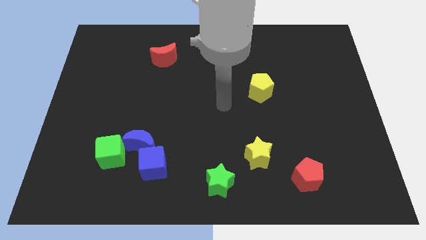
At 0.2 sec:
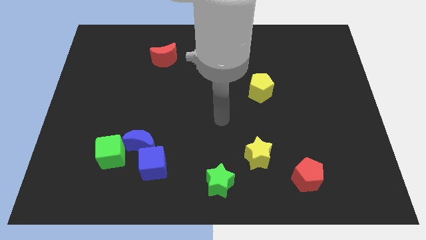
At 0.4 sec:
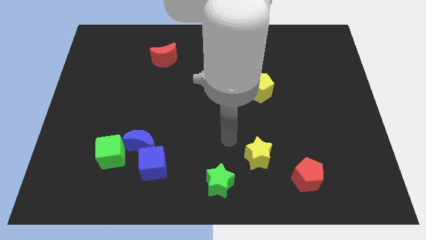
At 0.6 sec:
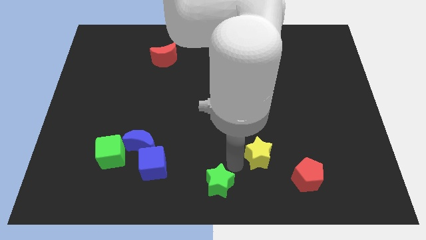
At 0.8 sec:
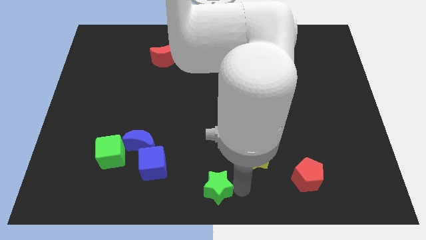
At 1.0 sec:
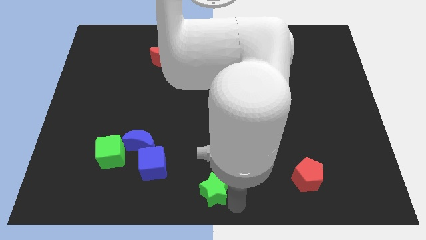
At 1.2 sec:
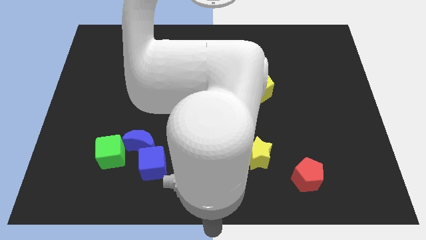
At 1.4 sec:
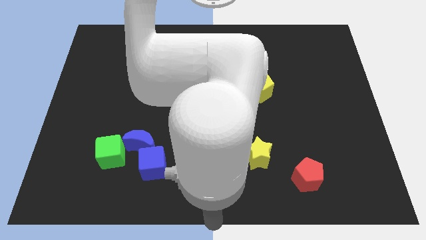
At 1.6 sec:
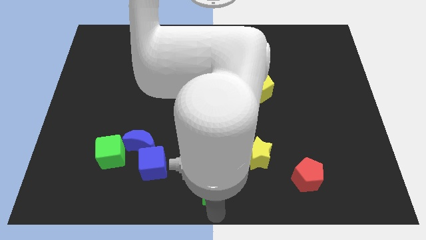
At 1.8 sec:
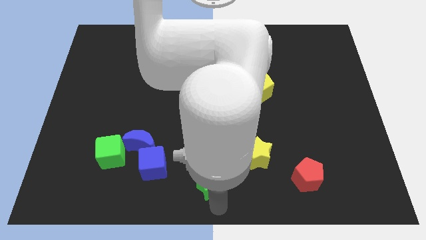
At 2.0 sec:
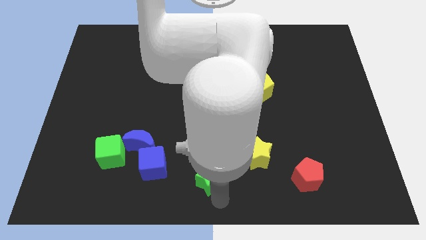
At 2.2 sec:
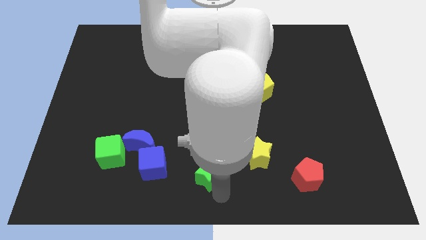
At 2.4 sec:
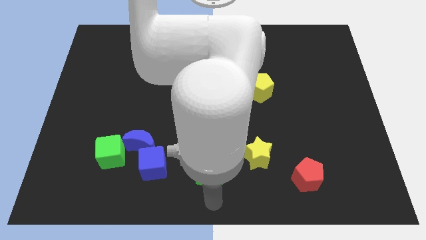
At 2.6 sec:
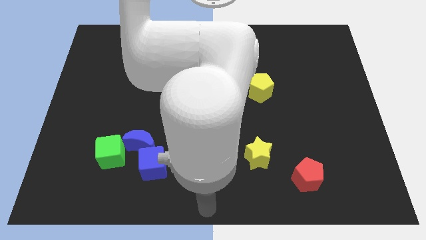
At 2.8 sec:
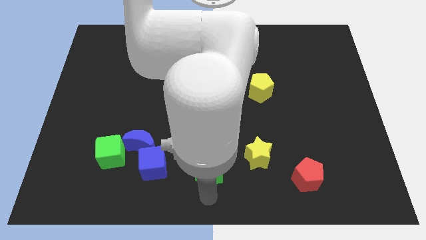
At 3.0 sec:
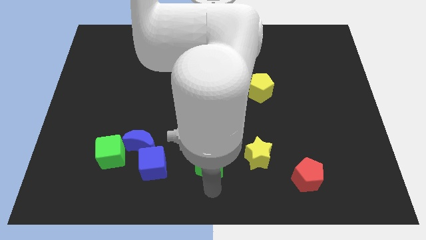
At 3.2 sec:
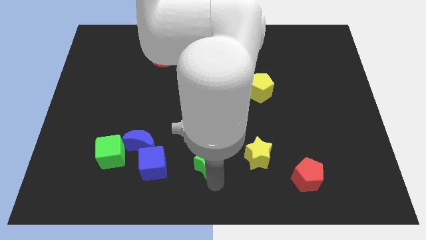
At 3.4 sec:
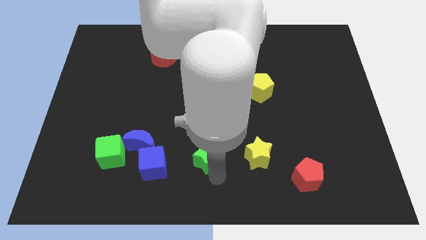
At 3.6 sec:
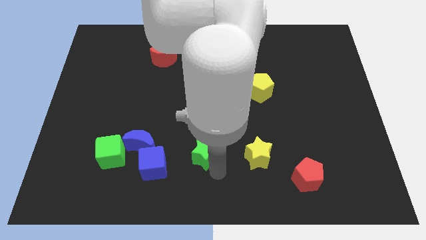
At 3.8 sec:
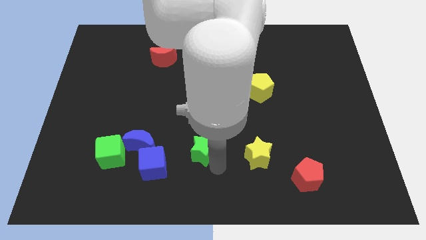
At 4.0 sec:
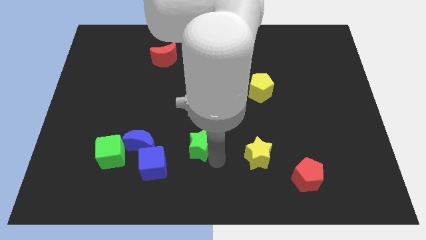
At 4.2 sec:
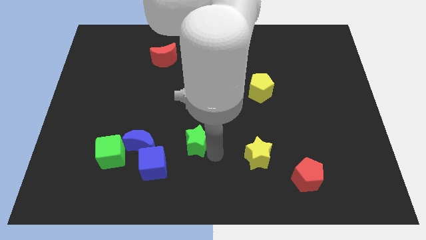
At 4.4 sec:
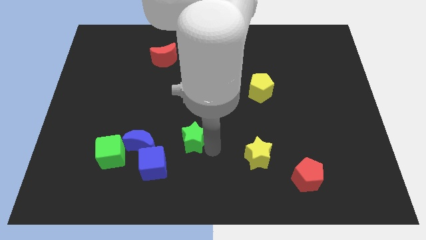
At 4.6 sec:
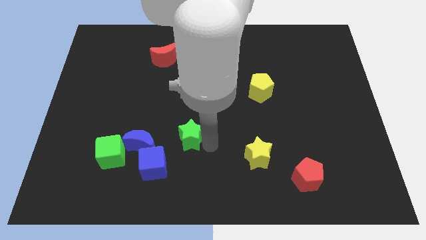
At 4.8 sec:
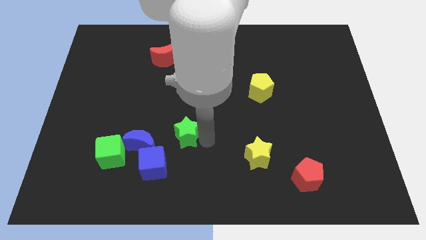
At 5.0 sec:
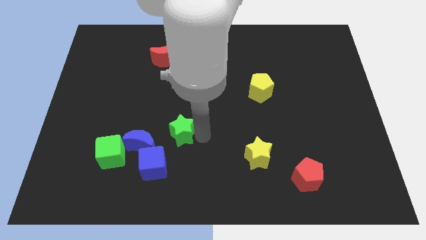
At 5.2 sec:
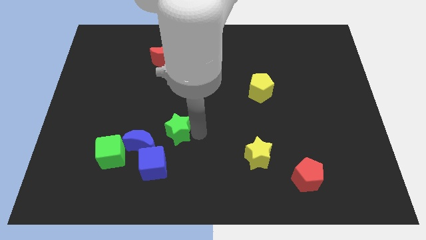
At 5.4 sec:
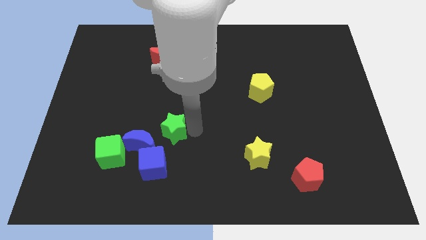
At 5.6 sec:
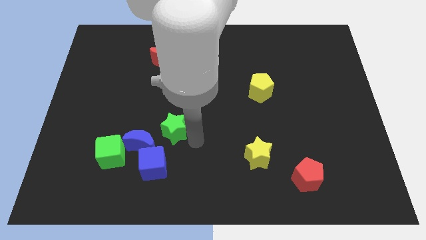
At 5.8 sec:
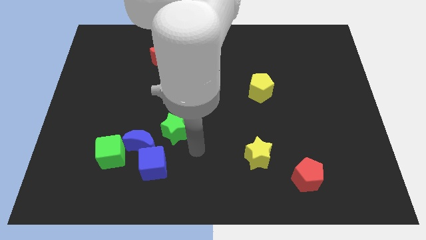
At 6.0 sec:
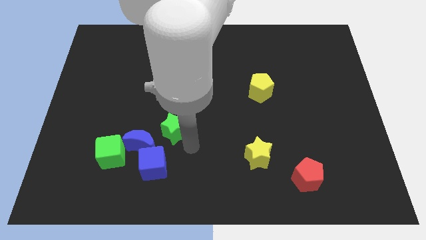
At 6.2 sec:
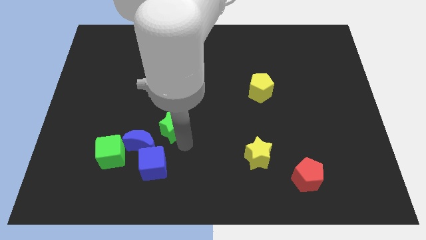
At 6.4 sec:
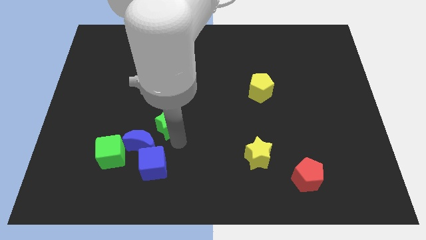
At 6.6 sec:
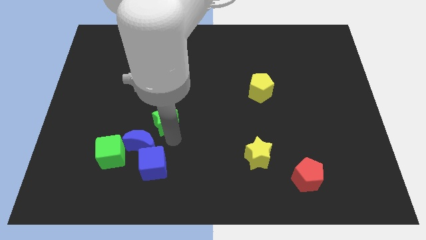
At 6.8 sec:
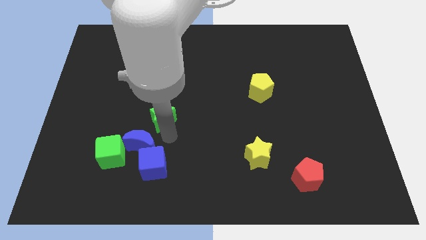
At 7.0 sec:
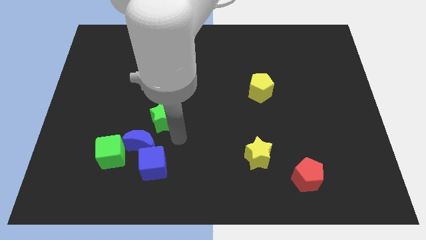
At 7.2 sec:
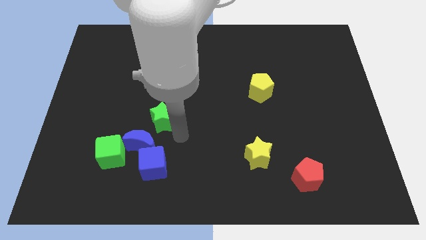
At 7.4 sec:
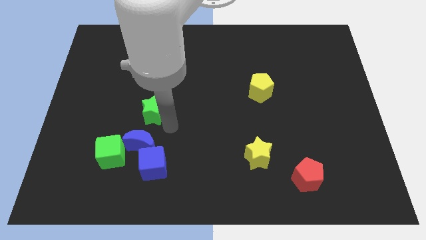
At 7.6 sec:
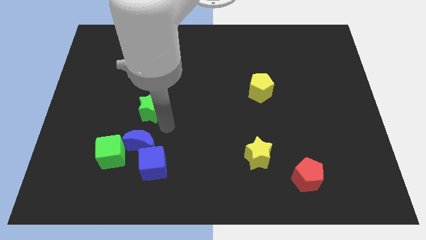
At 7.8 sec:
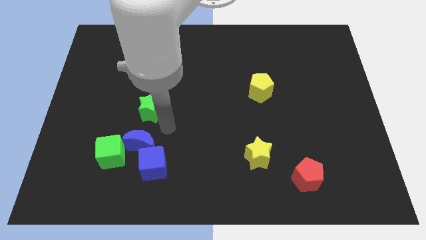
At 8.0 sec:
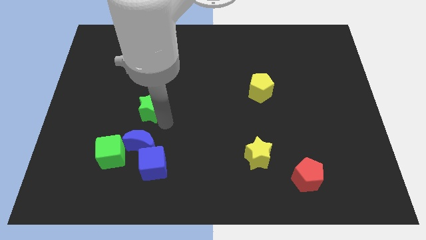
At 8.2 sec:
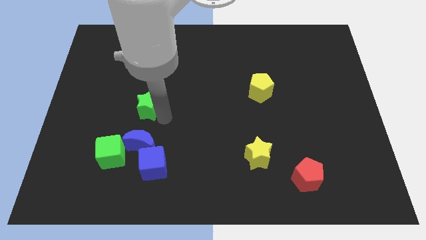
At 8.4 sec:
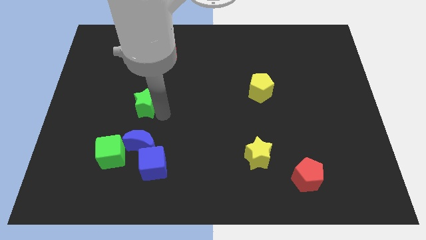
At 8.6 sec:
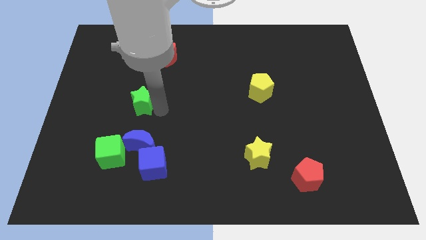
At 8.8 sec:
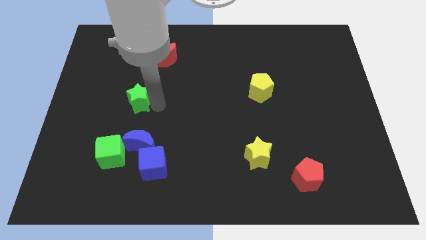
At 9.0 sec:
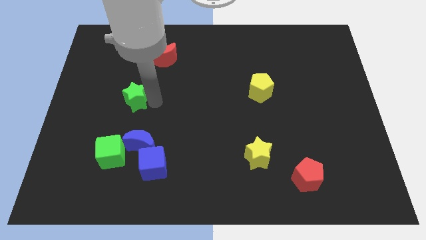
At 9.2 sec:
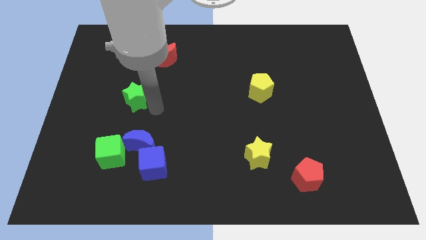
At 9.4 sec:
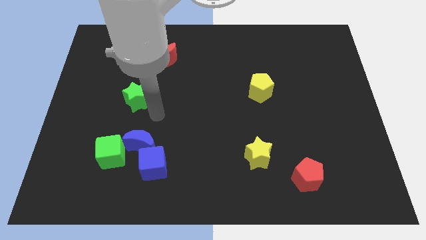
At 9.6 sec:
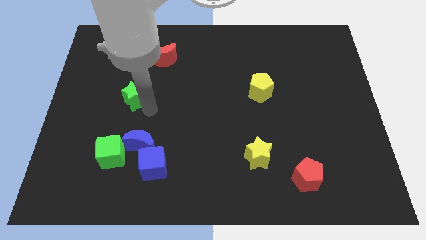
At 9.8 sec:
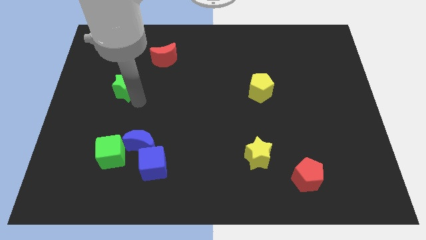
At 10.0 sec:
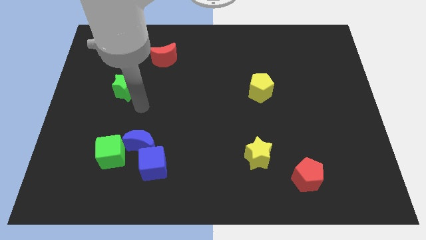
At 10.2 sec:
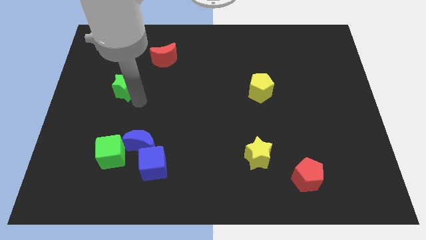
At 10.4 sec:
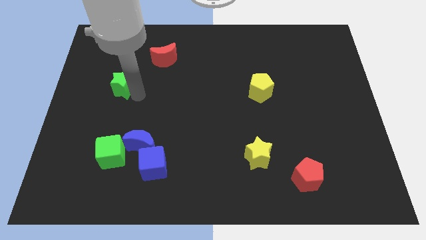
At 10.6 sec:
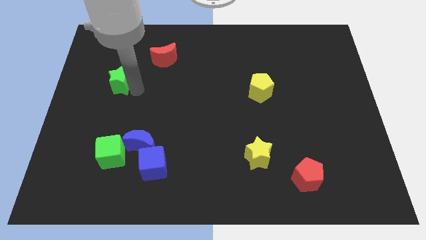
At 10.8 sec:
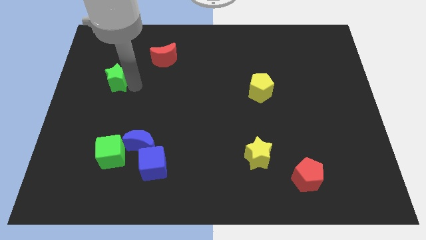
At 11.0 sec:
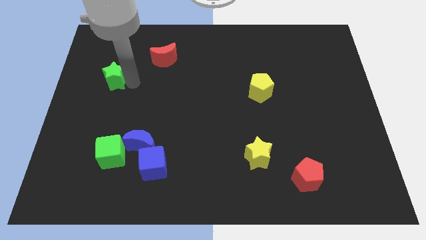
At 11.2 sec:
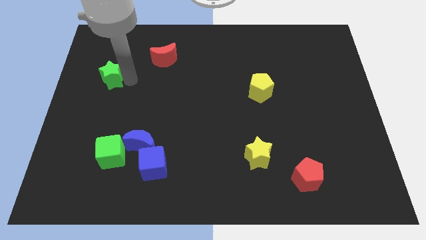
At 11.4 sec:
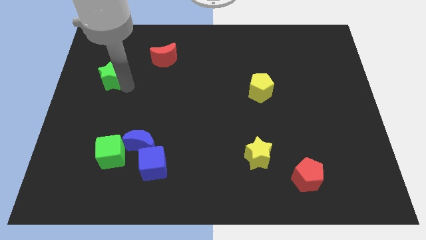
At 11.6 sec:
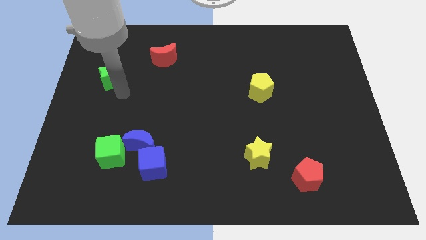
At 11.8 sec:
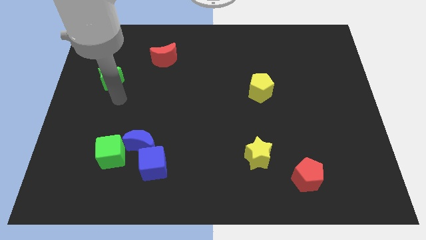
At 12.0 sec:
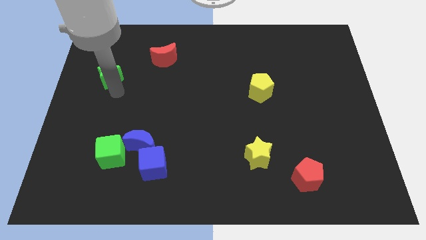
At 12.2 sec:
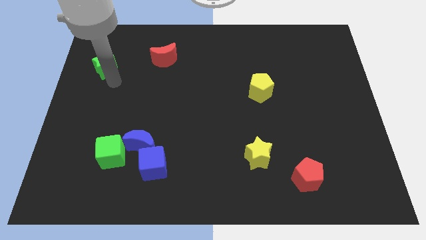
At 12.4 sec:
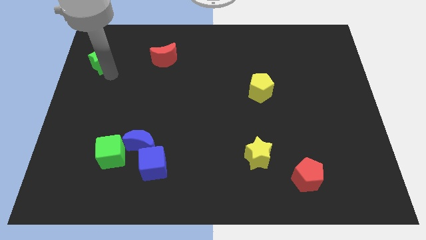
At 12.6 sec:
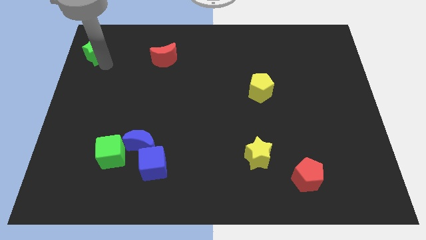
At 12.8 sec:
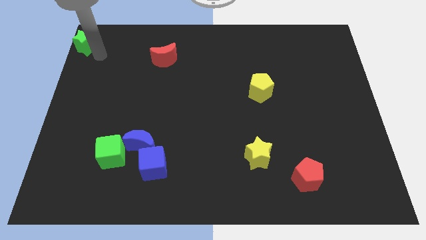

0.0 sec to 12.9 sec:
put the green star to the top left corner
